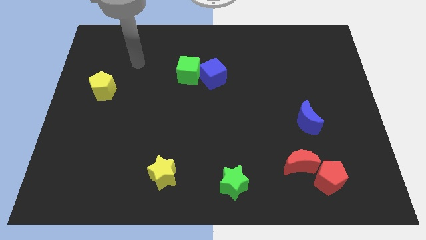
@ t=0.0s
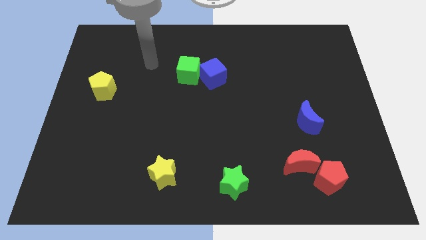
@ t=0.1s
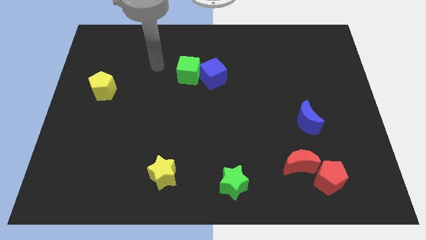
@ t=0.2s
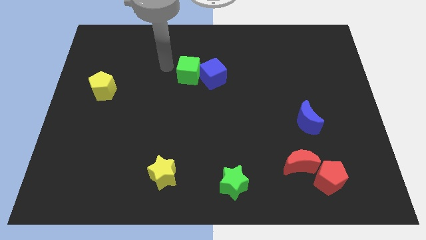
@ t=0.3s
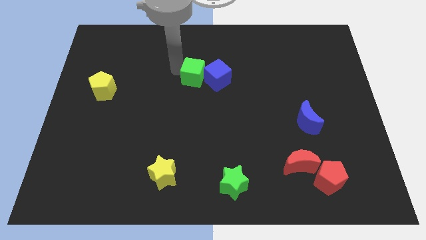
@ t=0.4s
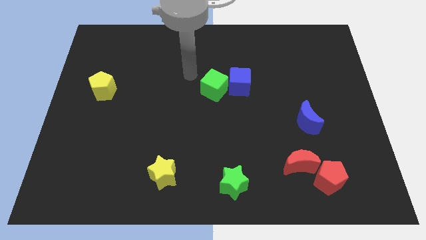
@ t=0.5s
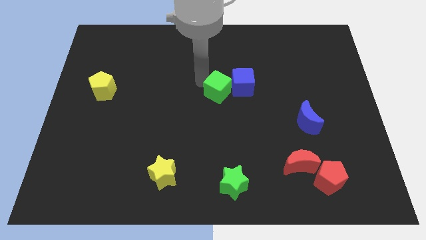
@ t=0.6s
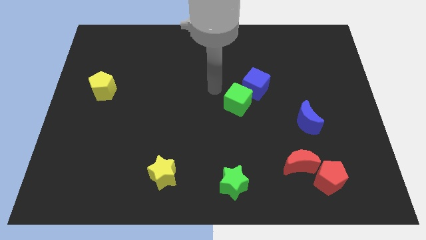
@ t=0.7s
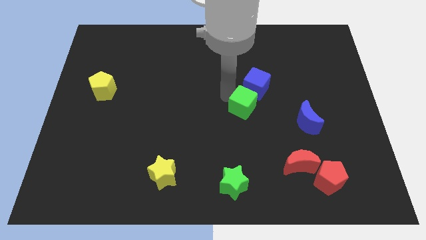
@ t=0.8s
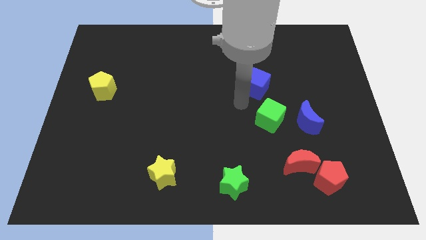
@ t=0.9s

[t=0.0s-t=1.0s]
move the blue cube away from the green cube

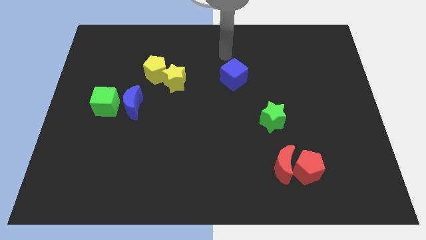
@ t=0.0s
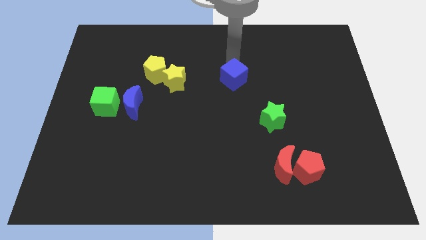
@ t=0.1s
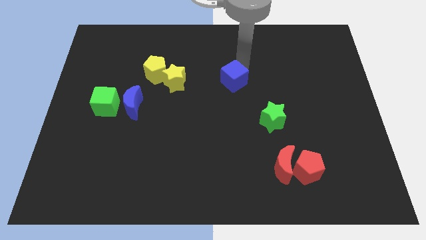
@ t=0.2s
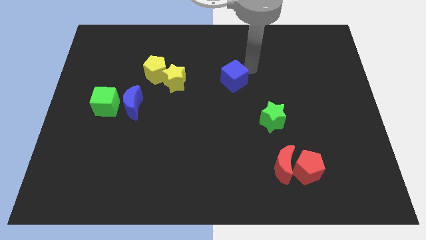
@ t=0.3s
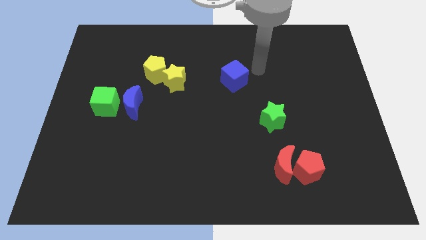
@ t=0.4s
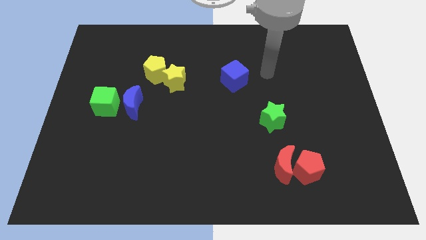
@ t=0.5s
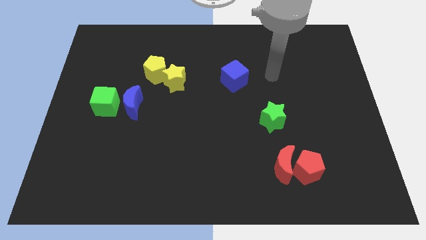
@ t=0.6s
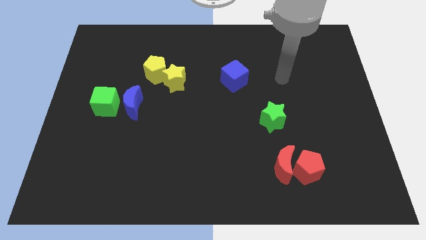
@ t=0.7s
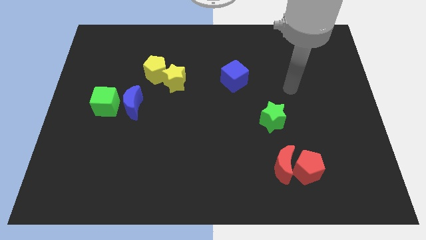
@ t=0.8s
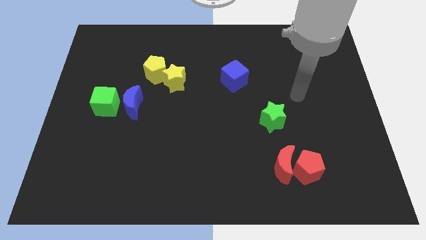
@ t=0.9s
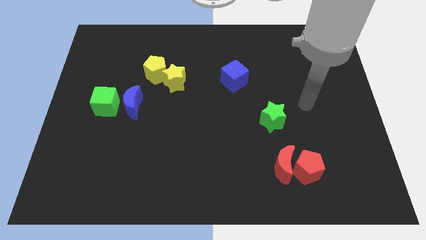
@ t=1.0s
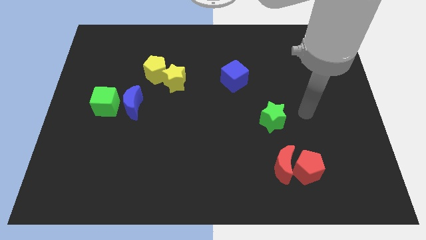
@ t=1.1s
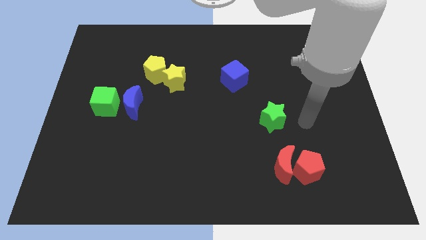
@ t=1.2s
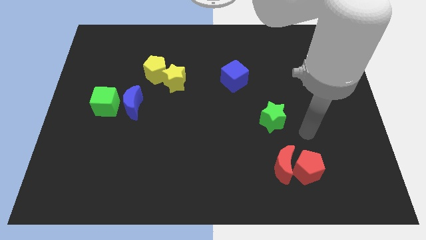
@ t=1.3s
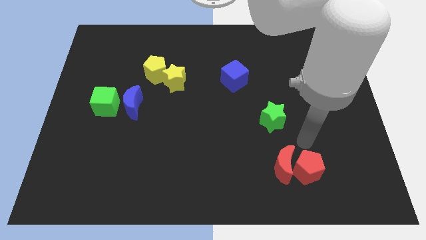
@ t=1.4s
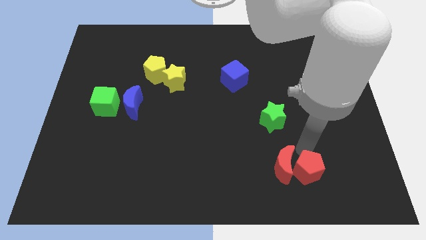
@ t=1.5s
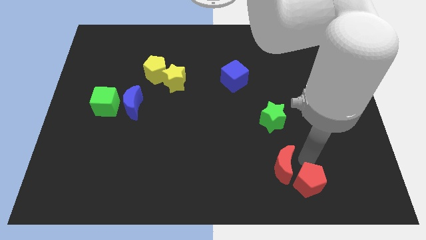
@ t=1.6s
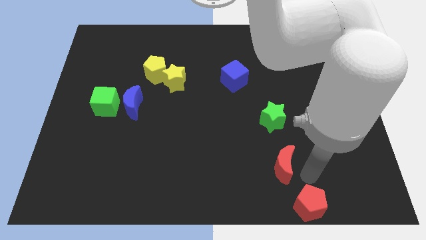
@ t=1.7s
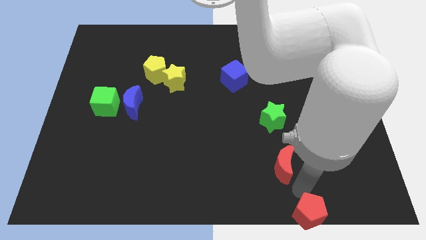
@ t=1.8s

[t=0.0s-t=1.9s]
pull the red moon apart from the red pentagon

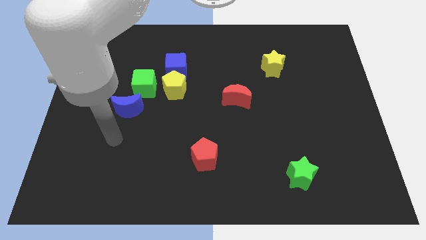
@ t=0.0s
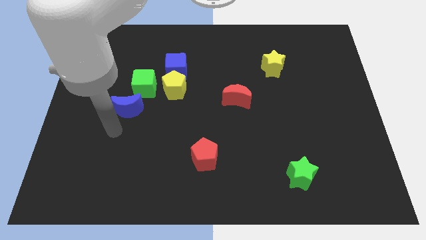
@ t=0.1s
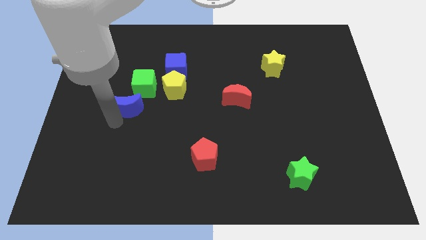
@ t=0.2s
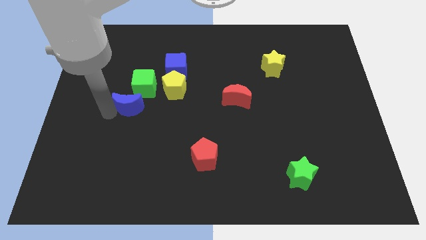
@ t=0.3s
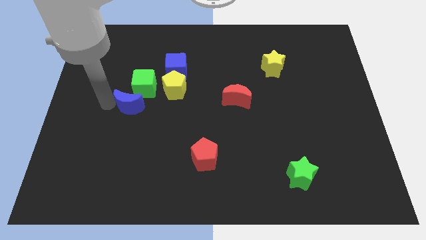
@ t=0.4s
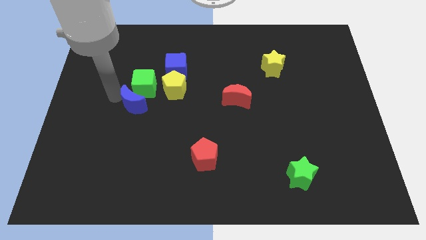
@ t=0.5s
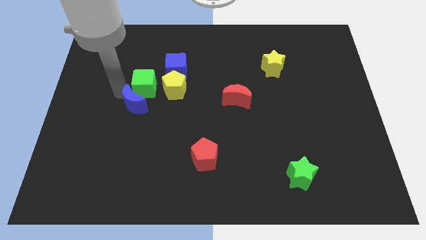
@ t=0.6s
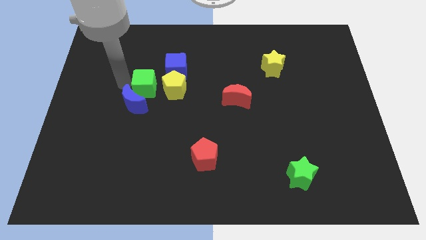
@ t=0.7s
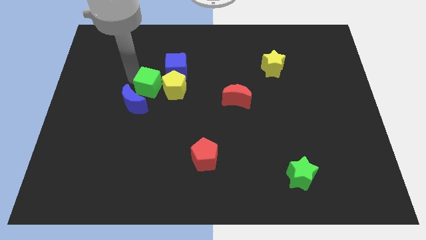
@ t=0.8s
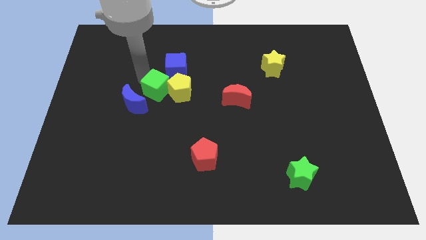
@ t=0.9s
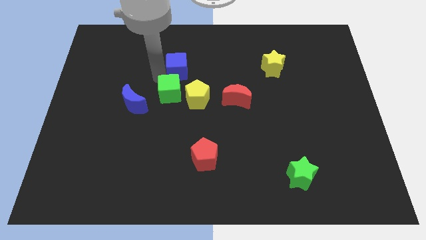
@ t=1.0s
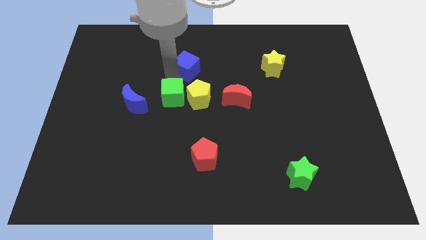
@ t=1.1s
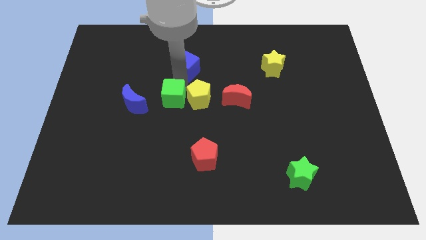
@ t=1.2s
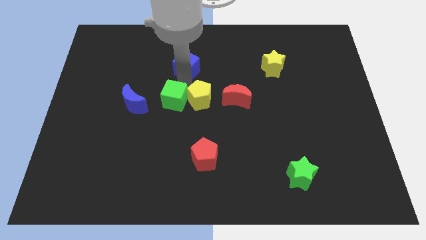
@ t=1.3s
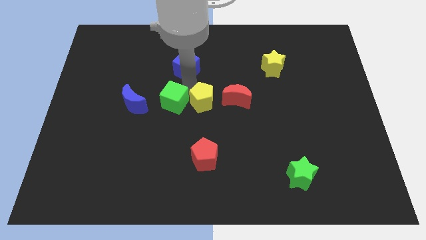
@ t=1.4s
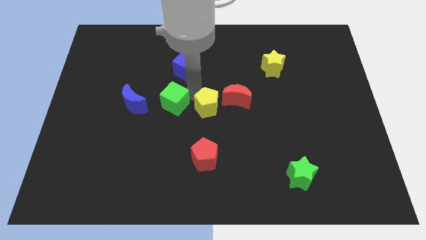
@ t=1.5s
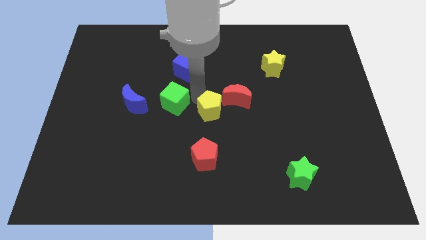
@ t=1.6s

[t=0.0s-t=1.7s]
pull the yellow pentagon apart from the blue cube and green cube

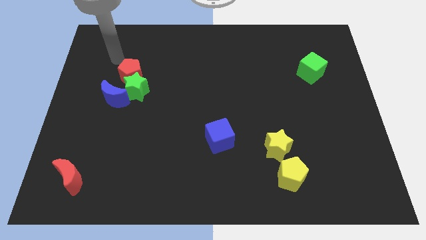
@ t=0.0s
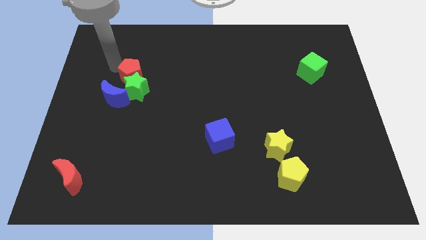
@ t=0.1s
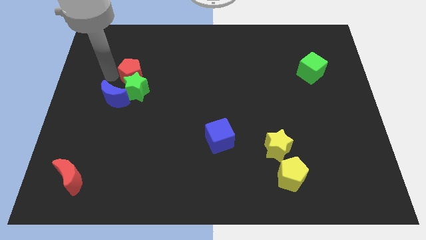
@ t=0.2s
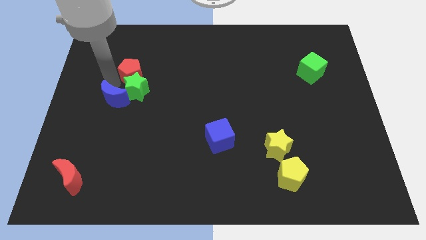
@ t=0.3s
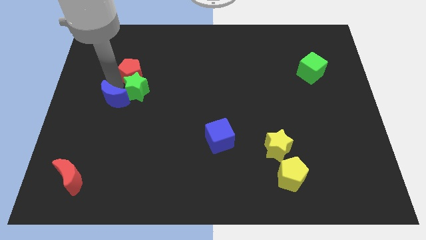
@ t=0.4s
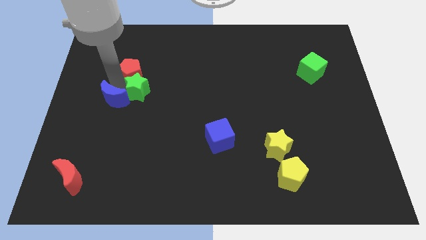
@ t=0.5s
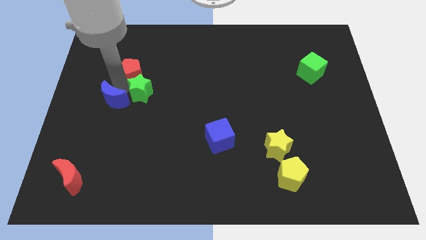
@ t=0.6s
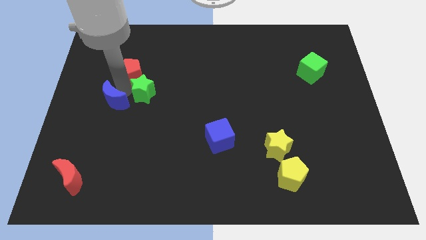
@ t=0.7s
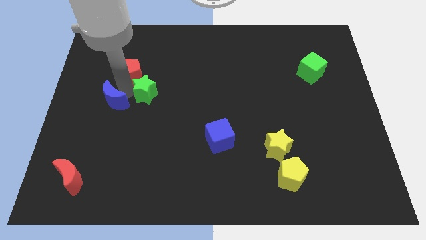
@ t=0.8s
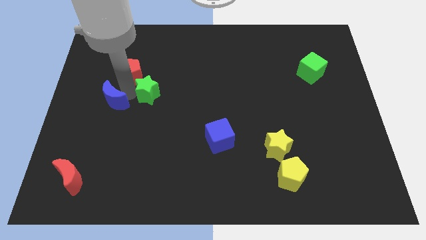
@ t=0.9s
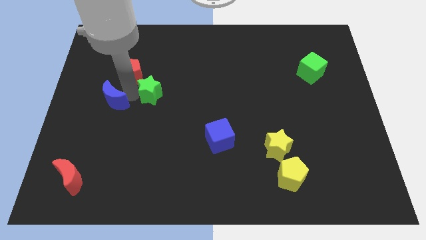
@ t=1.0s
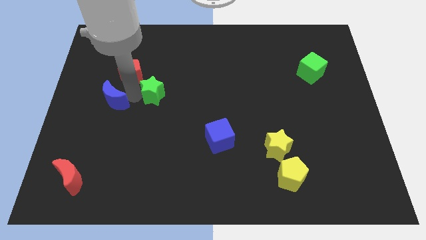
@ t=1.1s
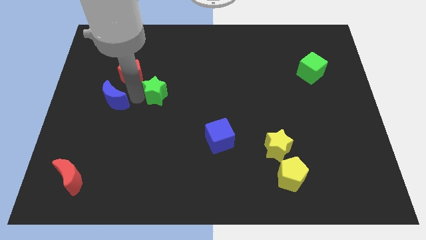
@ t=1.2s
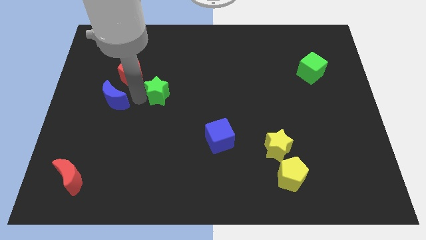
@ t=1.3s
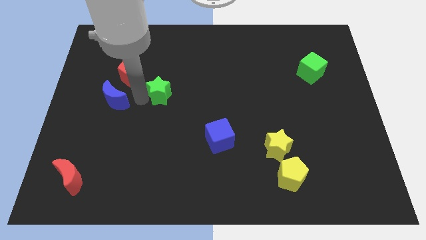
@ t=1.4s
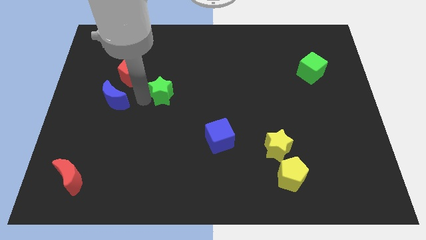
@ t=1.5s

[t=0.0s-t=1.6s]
move the green star away from the red pentagon and blue moon

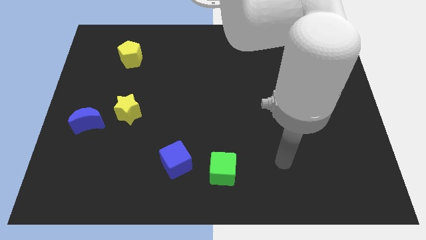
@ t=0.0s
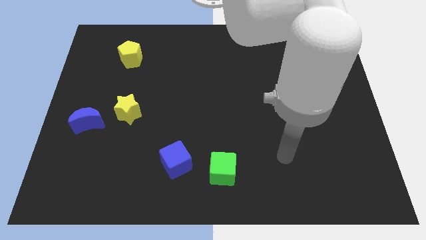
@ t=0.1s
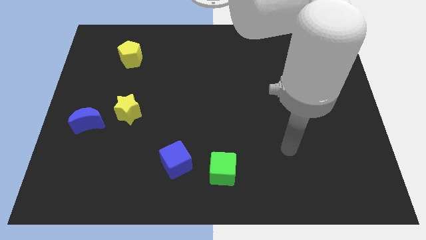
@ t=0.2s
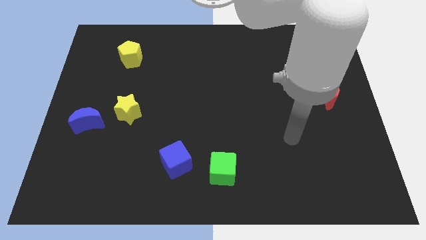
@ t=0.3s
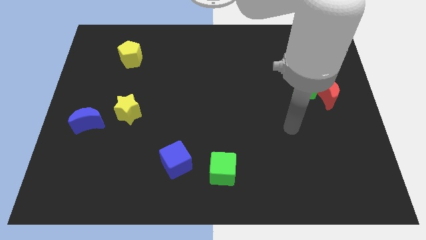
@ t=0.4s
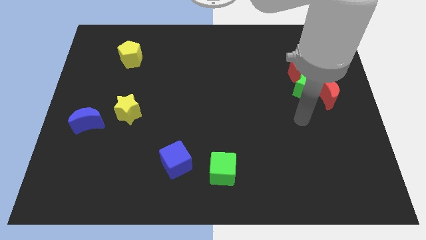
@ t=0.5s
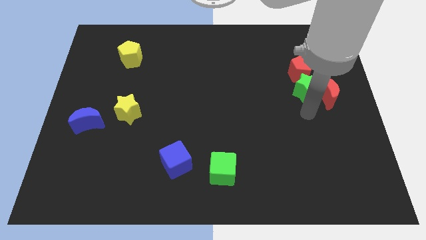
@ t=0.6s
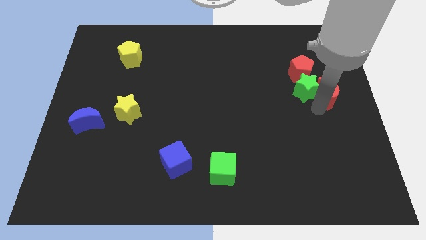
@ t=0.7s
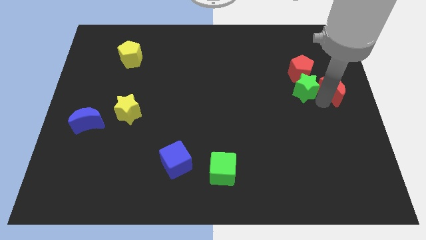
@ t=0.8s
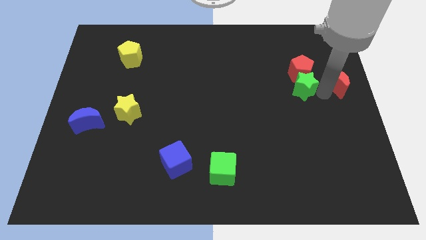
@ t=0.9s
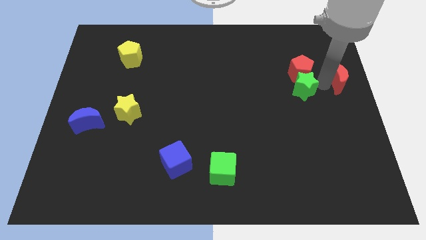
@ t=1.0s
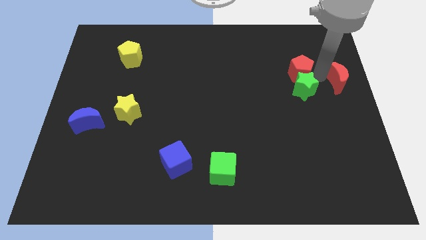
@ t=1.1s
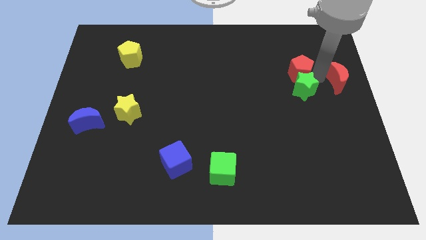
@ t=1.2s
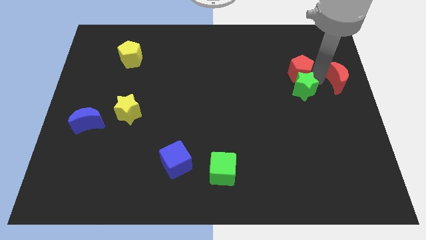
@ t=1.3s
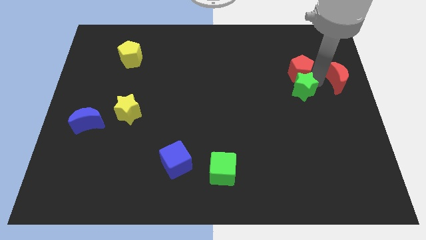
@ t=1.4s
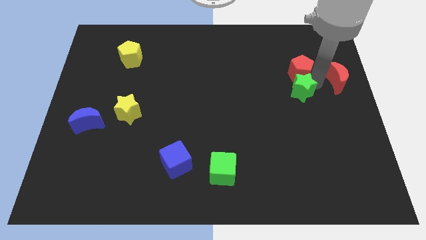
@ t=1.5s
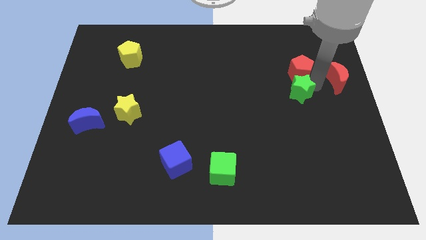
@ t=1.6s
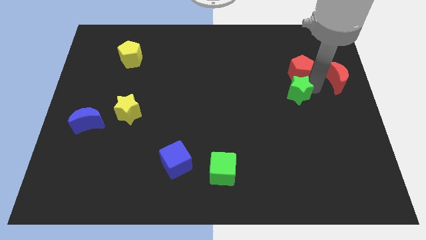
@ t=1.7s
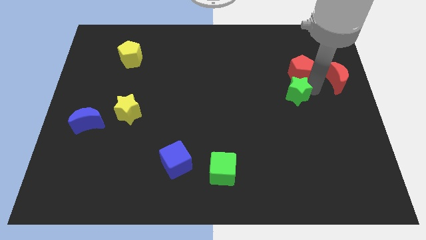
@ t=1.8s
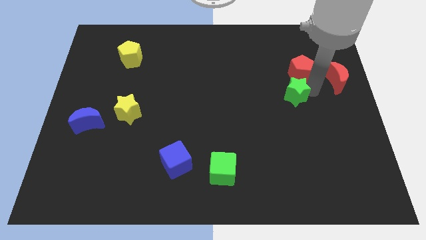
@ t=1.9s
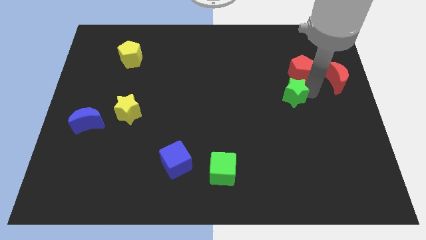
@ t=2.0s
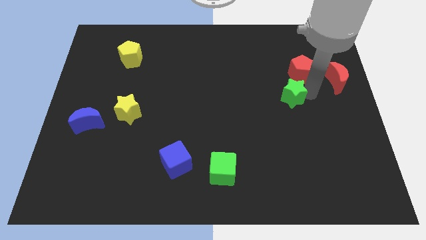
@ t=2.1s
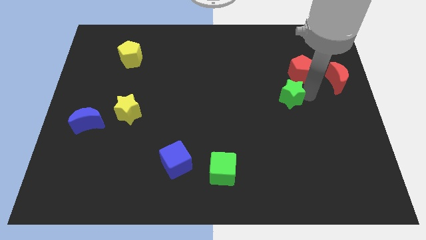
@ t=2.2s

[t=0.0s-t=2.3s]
move the green star away from the red moon and red pentagon

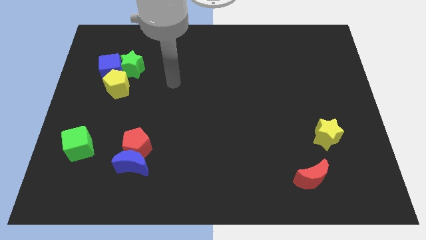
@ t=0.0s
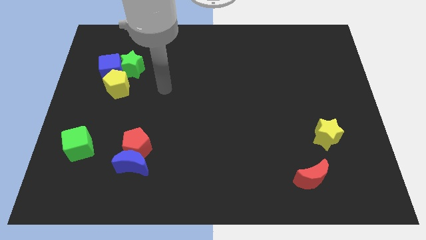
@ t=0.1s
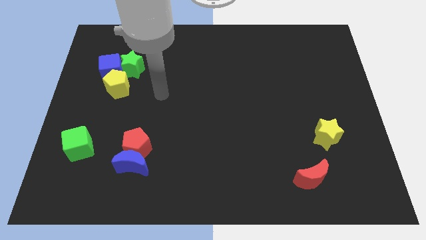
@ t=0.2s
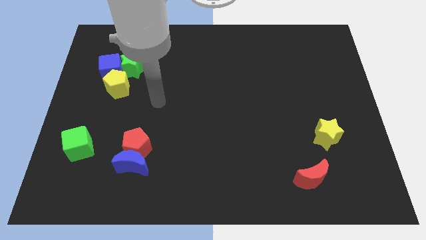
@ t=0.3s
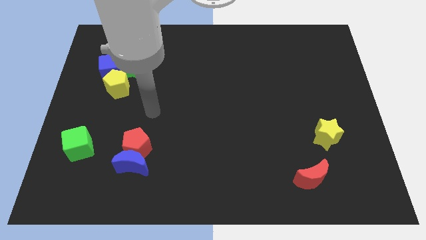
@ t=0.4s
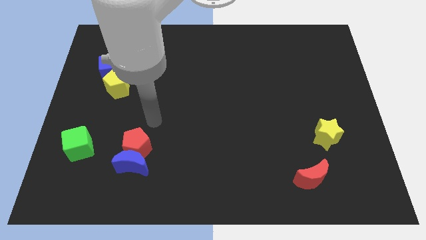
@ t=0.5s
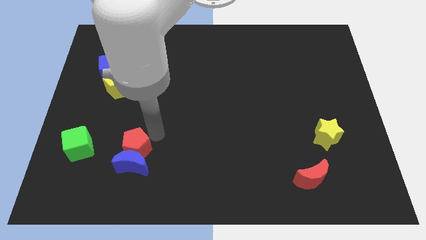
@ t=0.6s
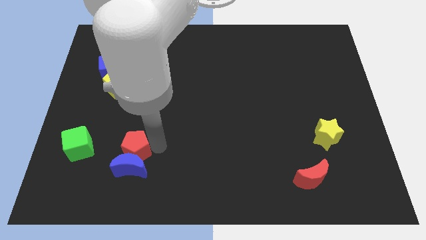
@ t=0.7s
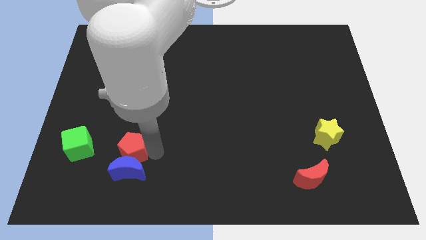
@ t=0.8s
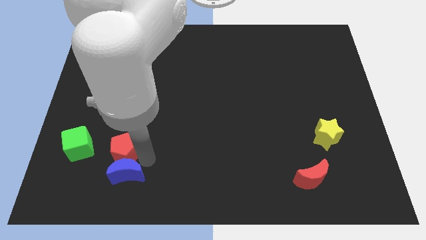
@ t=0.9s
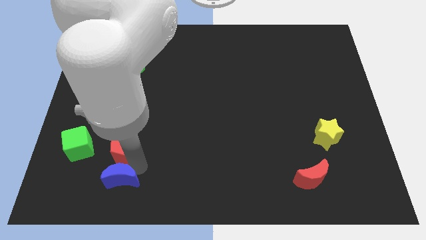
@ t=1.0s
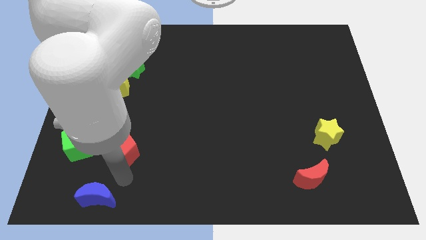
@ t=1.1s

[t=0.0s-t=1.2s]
pull the red pentagon apart from the blue moon
